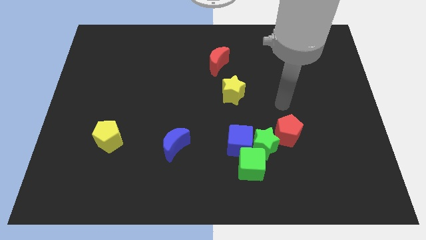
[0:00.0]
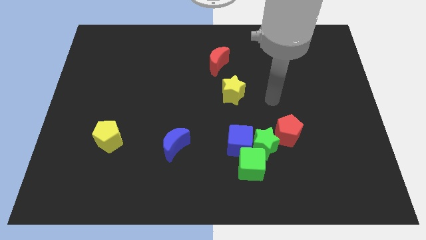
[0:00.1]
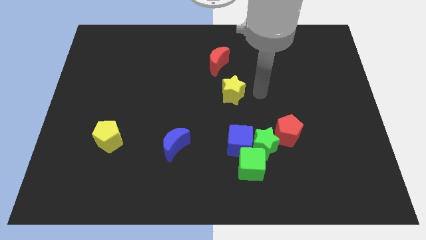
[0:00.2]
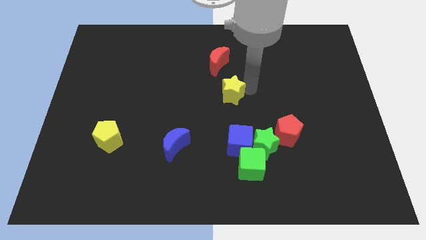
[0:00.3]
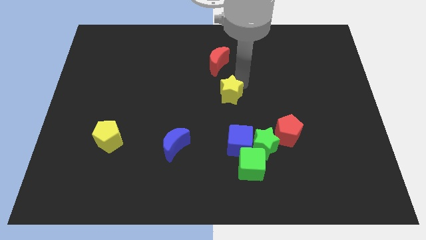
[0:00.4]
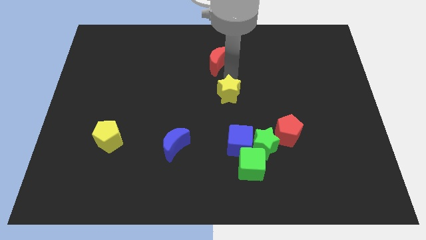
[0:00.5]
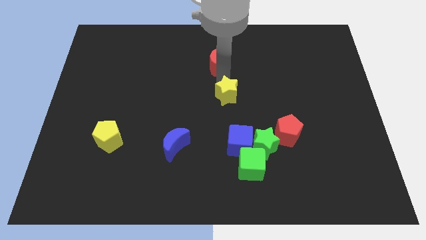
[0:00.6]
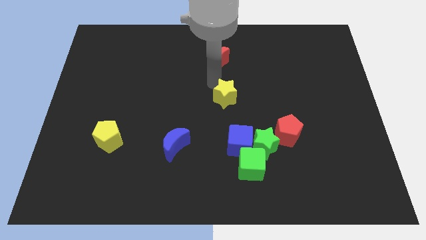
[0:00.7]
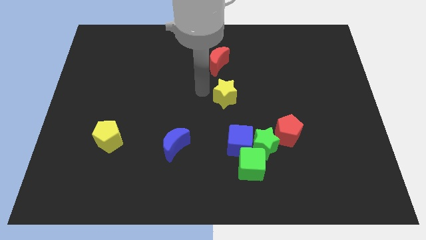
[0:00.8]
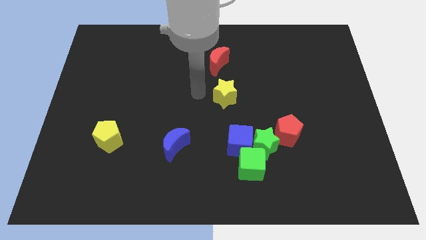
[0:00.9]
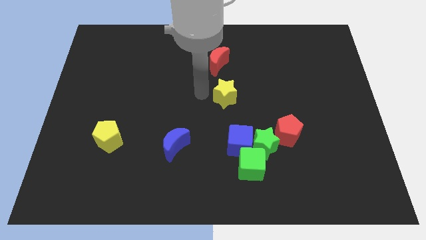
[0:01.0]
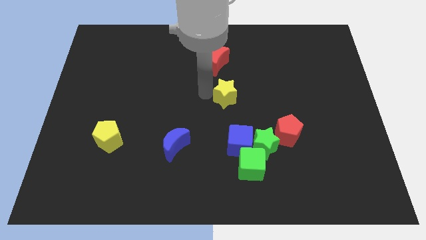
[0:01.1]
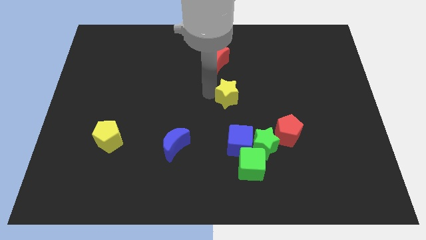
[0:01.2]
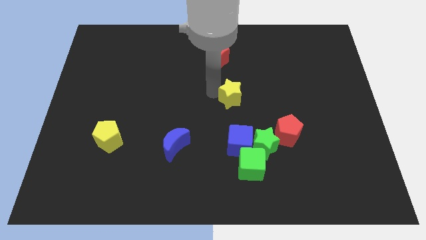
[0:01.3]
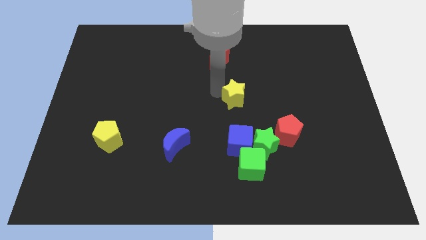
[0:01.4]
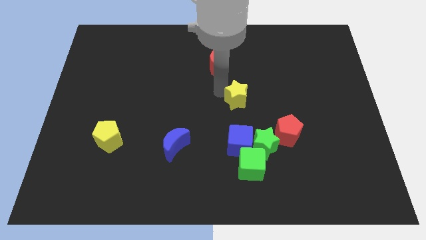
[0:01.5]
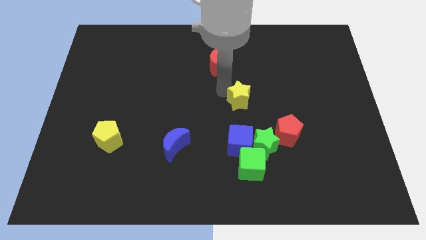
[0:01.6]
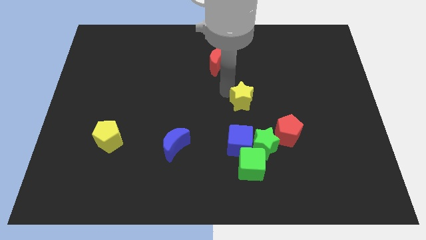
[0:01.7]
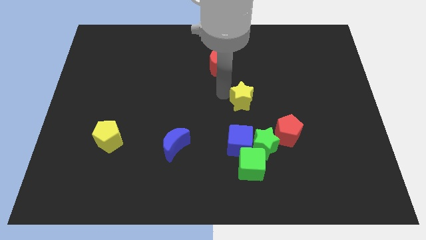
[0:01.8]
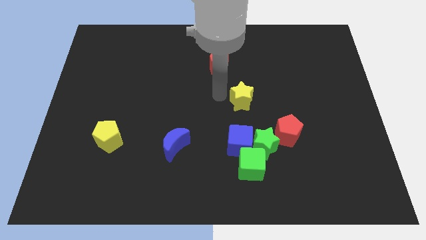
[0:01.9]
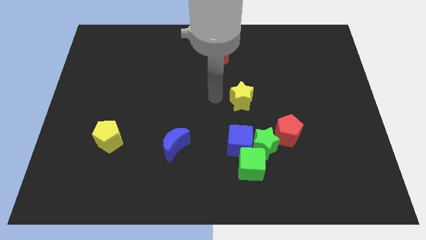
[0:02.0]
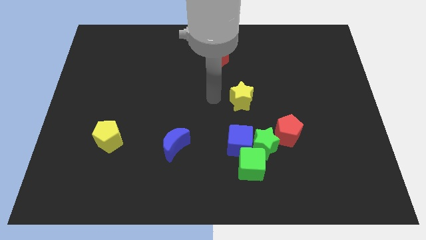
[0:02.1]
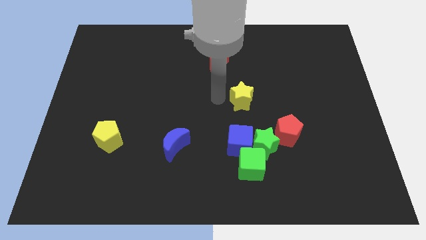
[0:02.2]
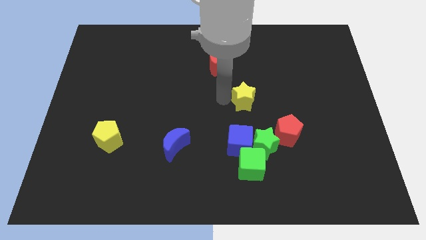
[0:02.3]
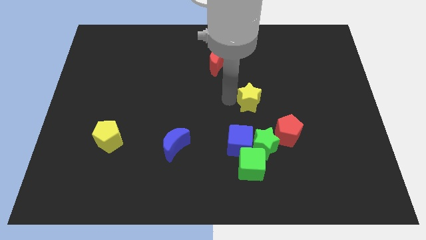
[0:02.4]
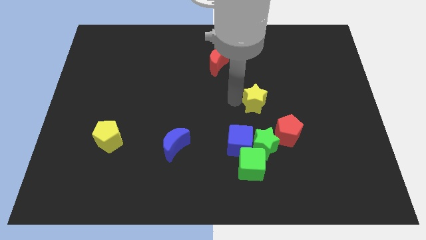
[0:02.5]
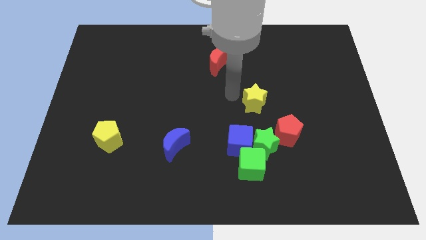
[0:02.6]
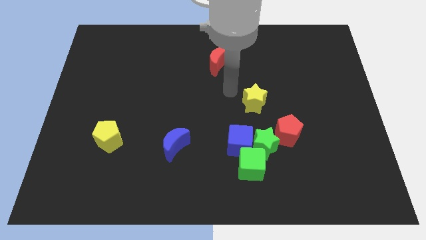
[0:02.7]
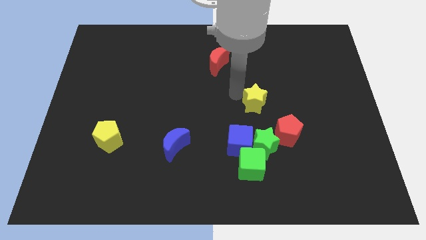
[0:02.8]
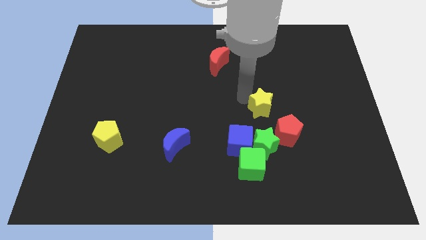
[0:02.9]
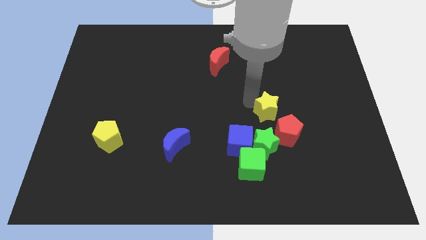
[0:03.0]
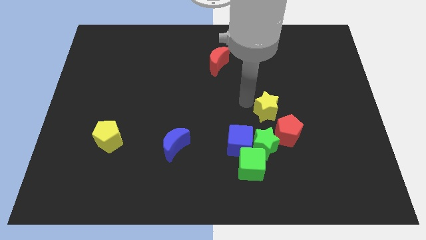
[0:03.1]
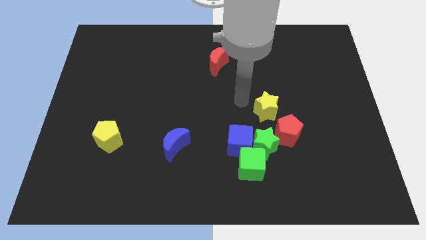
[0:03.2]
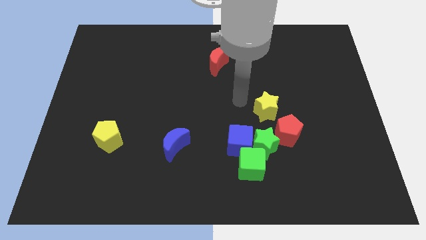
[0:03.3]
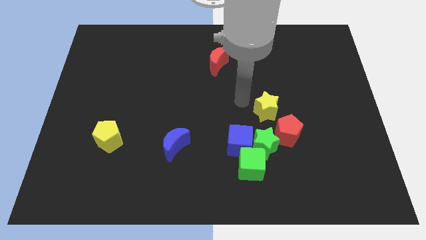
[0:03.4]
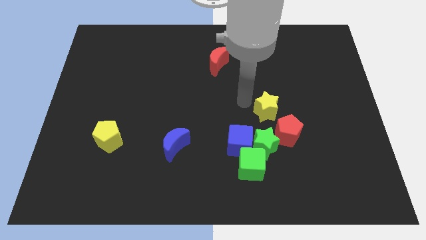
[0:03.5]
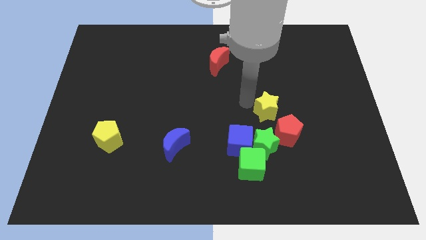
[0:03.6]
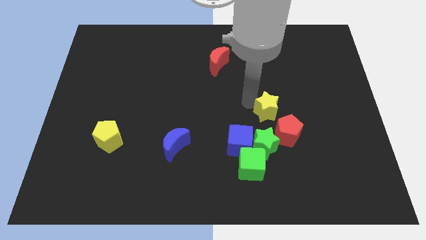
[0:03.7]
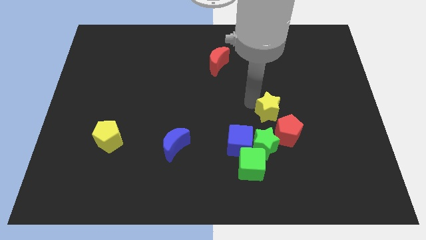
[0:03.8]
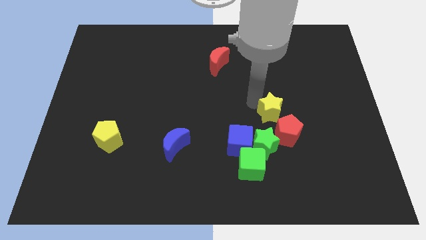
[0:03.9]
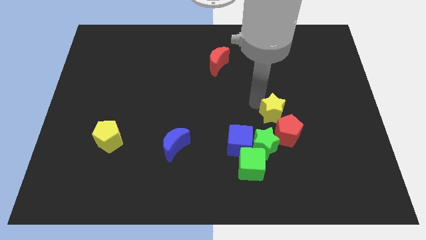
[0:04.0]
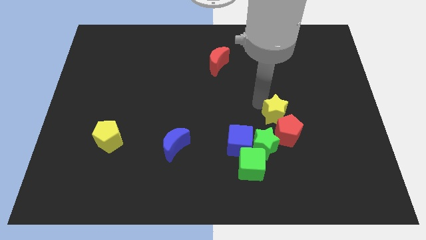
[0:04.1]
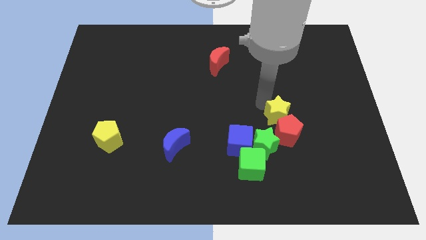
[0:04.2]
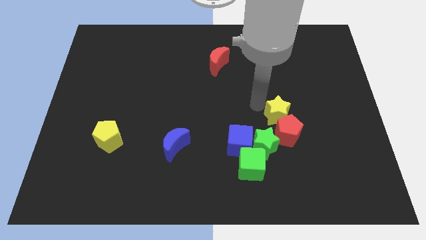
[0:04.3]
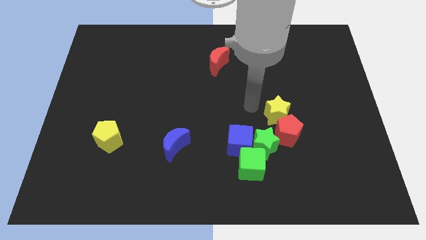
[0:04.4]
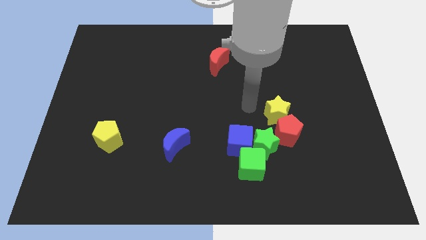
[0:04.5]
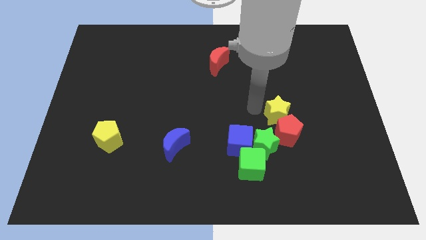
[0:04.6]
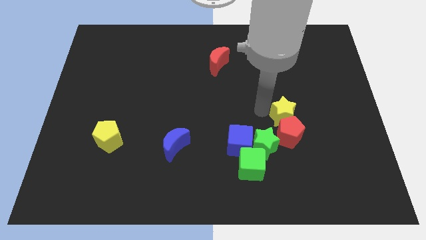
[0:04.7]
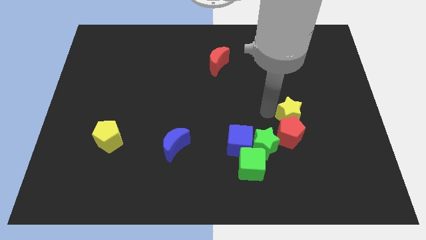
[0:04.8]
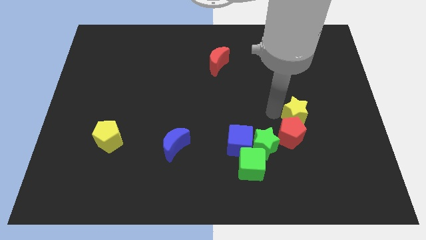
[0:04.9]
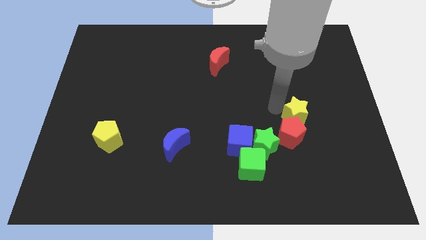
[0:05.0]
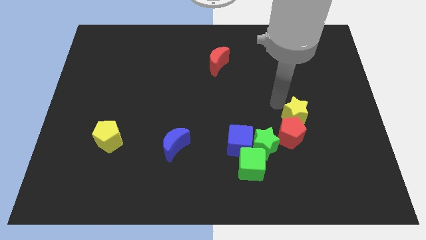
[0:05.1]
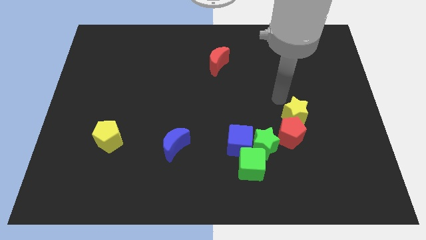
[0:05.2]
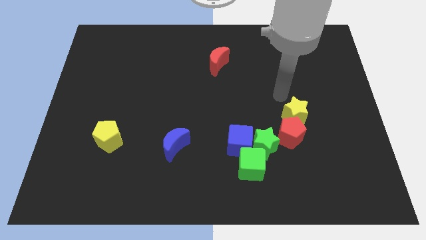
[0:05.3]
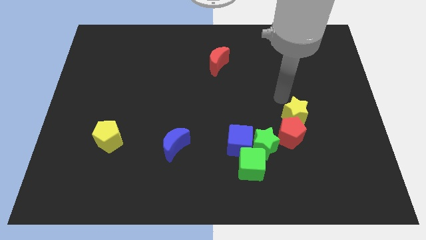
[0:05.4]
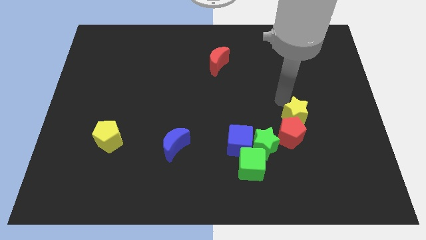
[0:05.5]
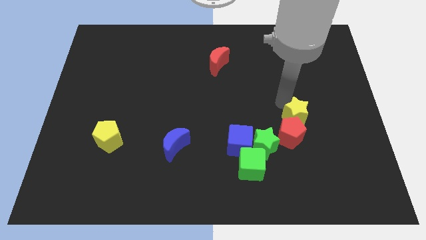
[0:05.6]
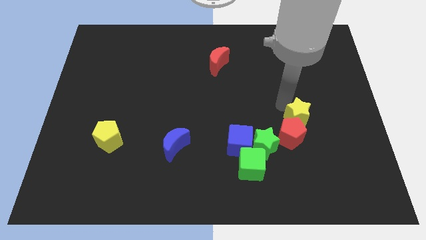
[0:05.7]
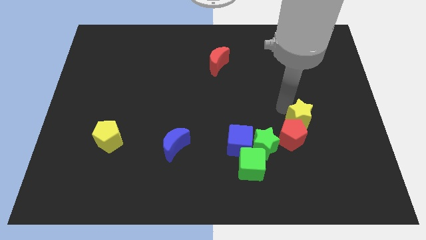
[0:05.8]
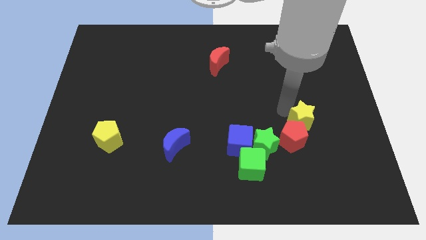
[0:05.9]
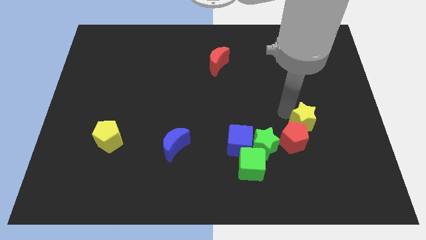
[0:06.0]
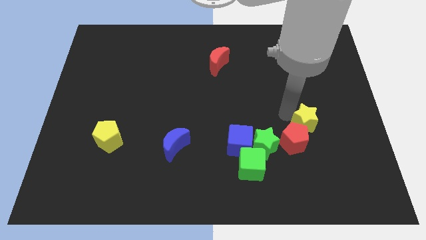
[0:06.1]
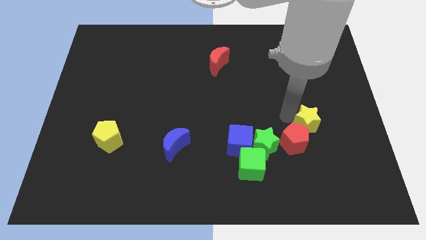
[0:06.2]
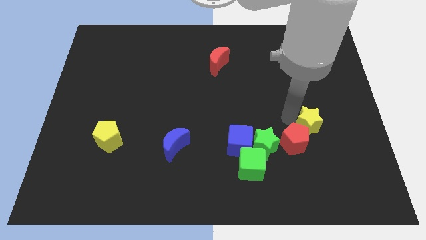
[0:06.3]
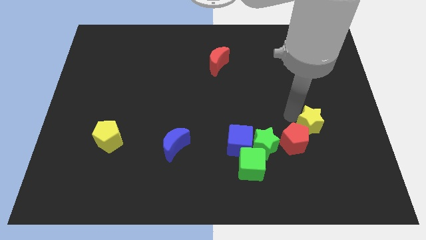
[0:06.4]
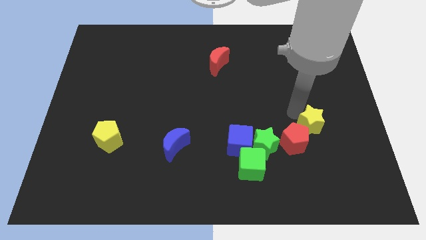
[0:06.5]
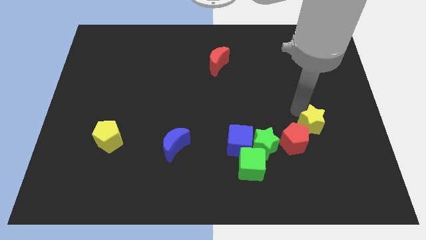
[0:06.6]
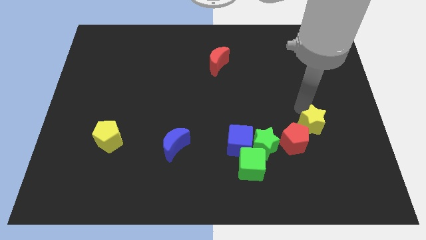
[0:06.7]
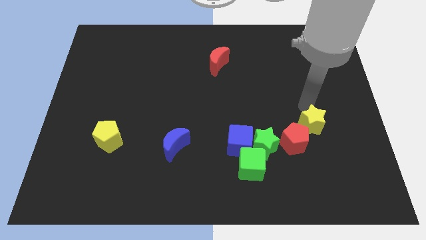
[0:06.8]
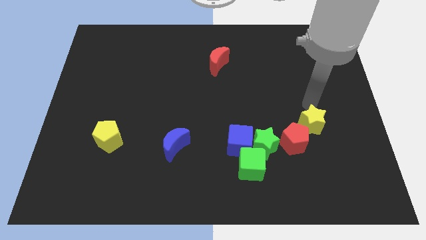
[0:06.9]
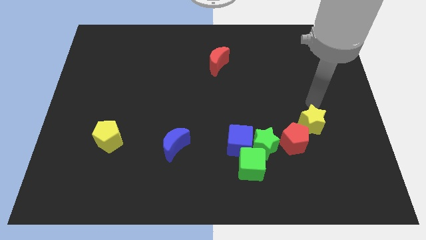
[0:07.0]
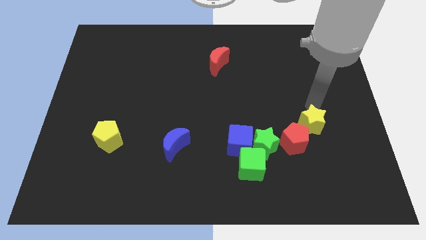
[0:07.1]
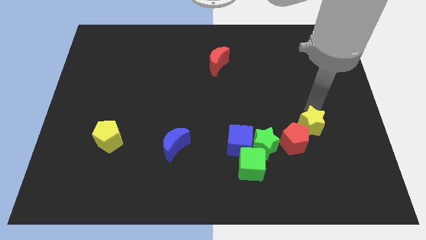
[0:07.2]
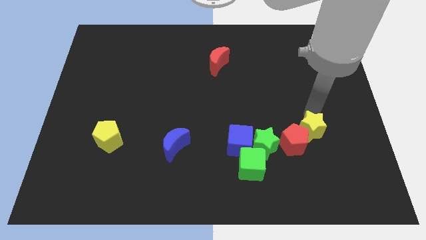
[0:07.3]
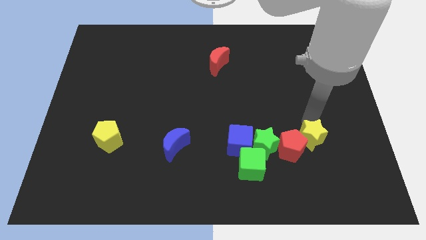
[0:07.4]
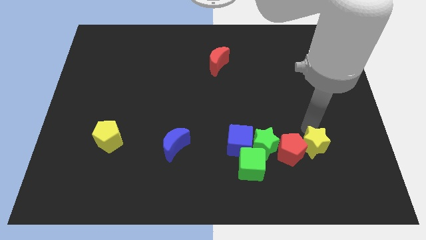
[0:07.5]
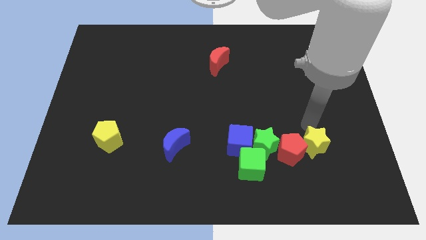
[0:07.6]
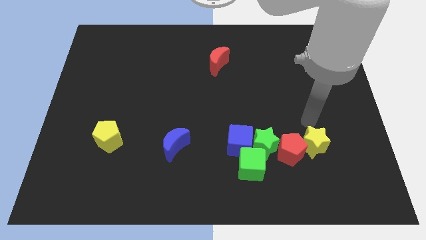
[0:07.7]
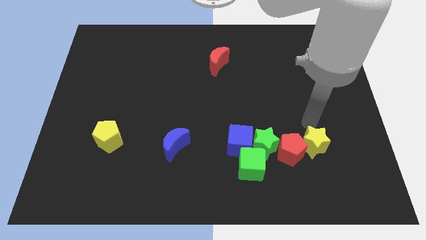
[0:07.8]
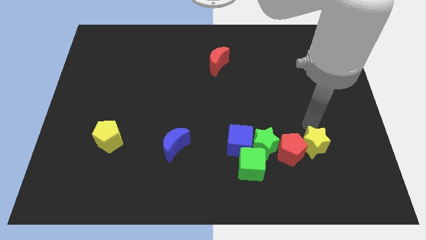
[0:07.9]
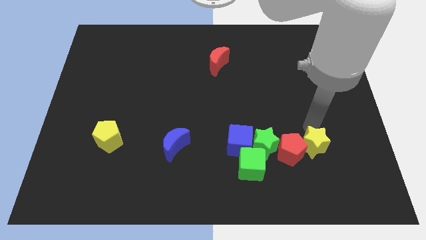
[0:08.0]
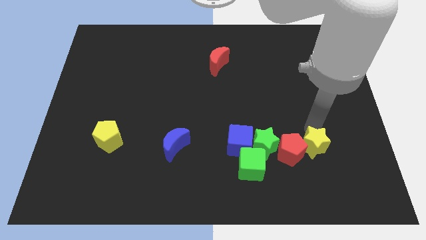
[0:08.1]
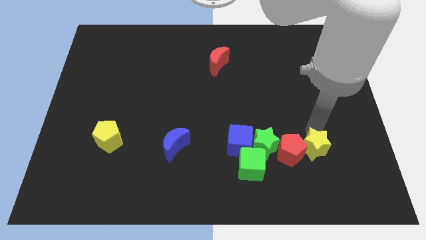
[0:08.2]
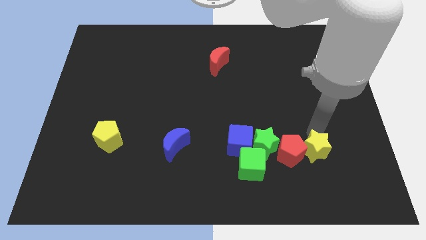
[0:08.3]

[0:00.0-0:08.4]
slide the yellow star to the right of the green cube
